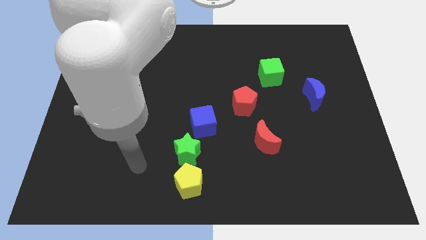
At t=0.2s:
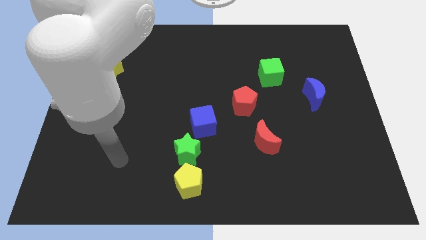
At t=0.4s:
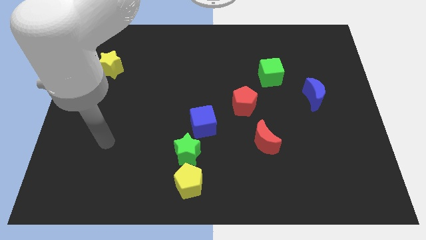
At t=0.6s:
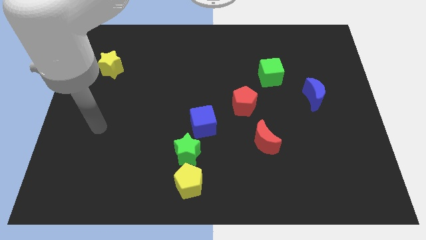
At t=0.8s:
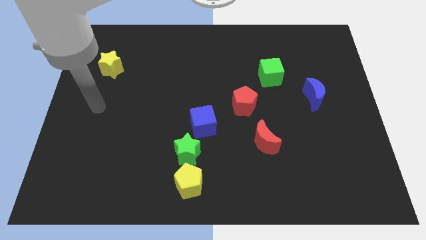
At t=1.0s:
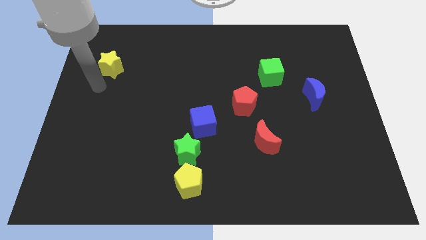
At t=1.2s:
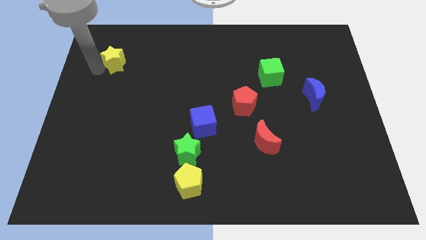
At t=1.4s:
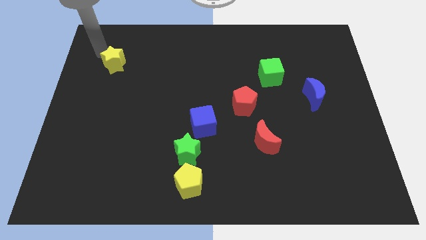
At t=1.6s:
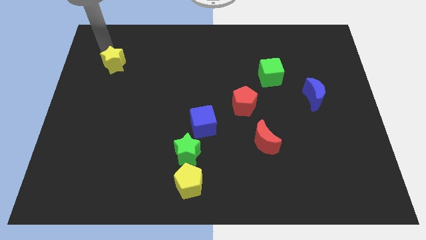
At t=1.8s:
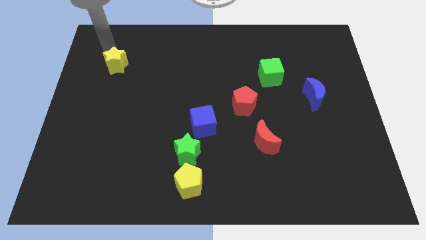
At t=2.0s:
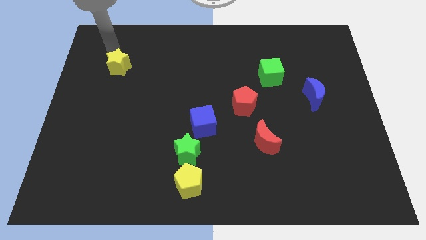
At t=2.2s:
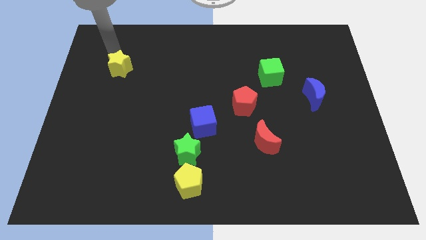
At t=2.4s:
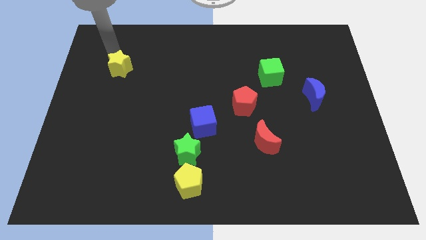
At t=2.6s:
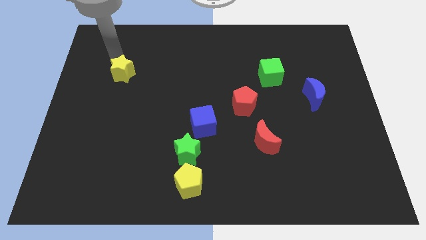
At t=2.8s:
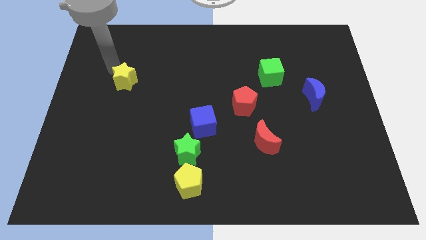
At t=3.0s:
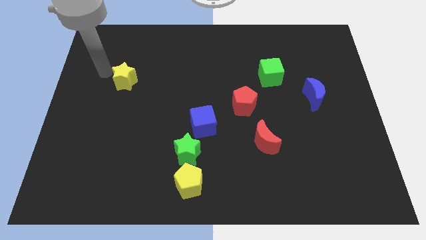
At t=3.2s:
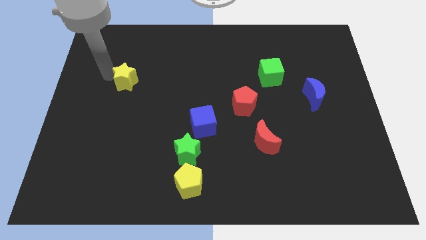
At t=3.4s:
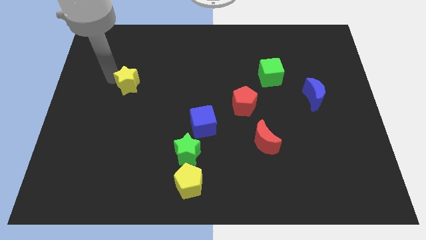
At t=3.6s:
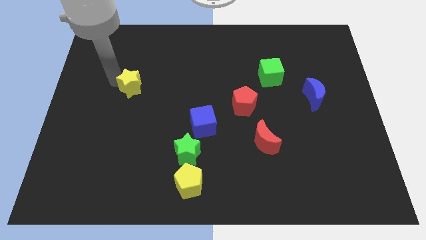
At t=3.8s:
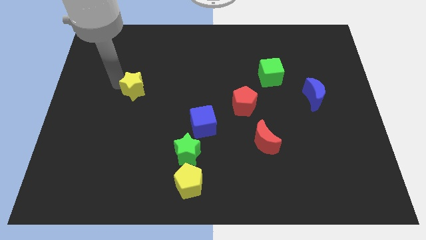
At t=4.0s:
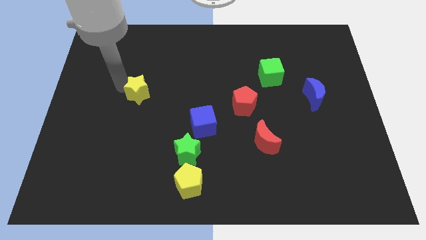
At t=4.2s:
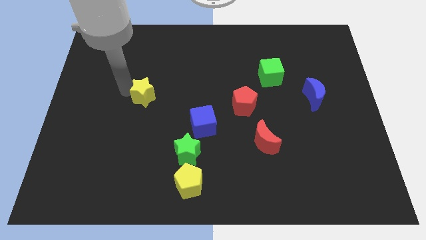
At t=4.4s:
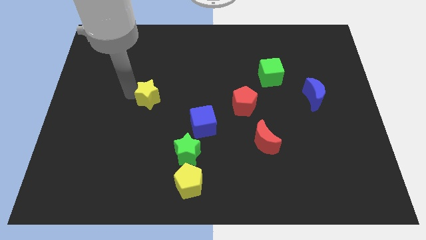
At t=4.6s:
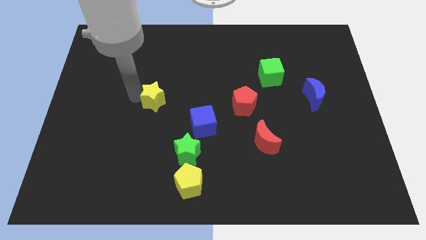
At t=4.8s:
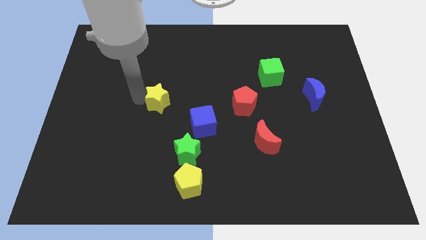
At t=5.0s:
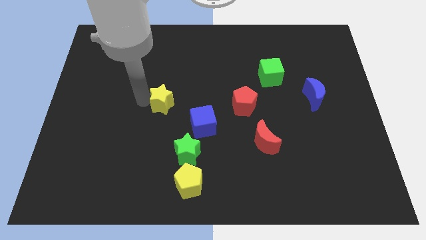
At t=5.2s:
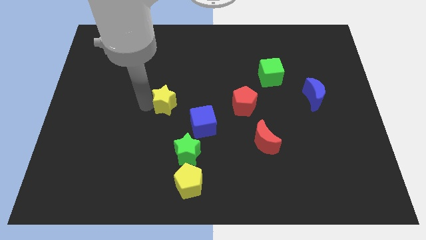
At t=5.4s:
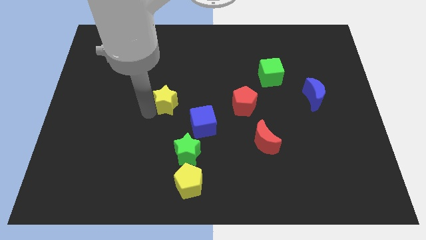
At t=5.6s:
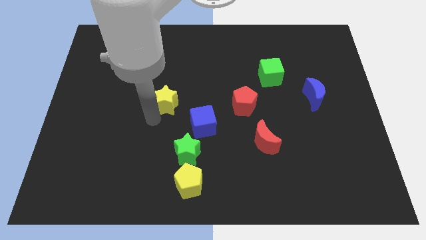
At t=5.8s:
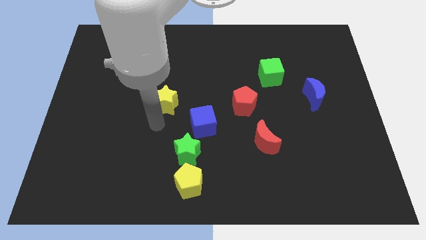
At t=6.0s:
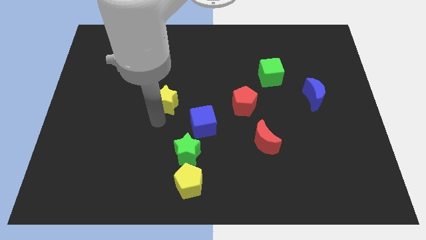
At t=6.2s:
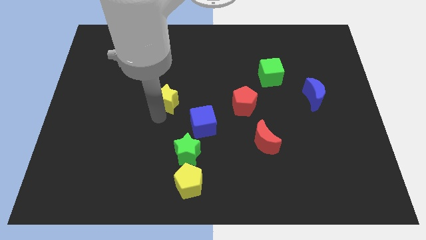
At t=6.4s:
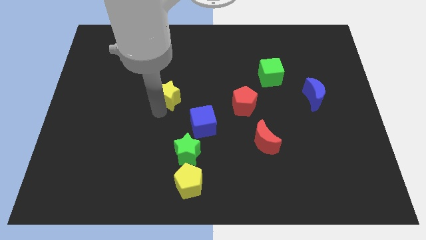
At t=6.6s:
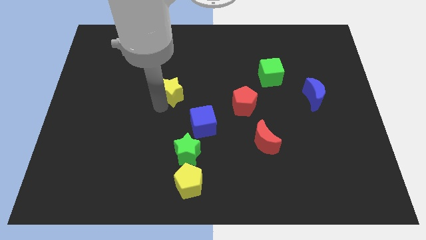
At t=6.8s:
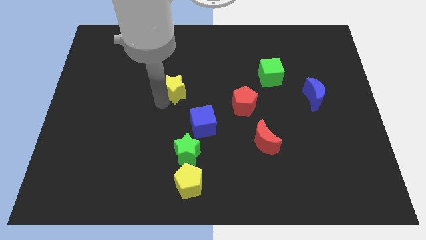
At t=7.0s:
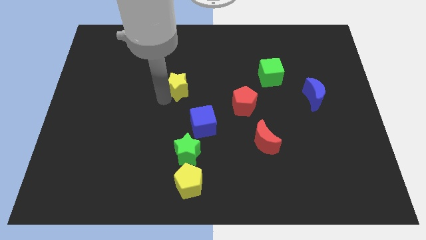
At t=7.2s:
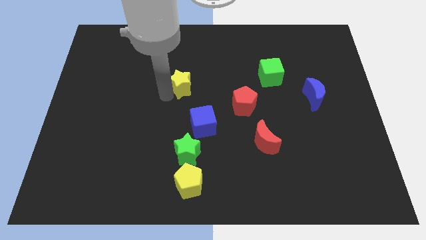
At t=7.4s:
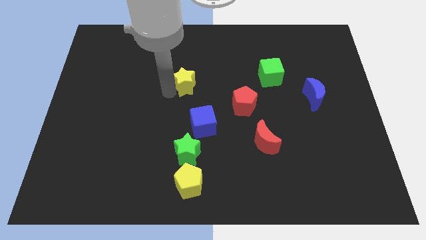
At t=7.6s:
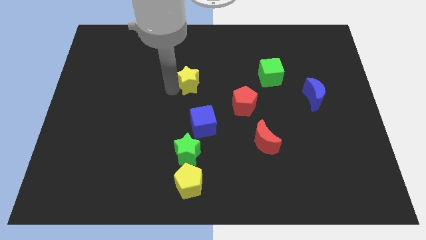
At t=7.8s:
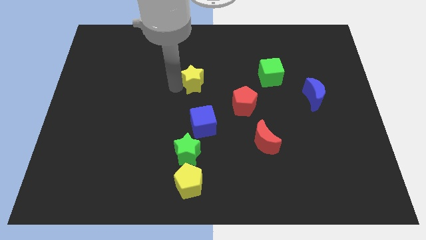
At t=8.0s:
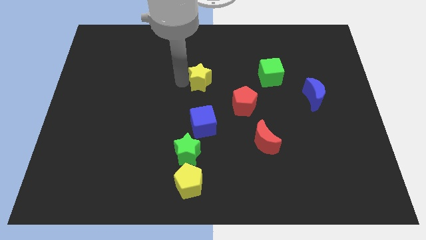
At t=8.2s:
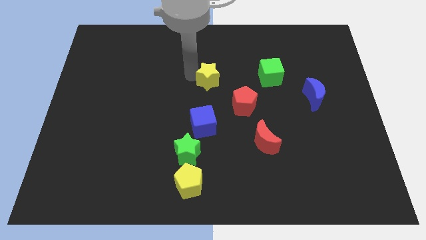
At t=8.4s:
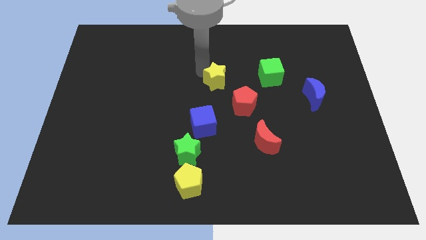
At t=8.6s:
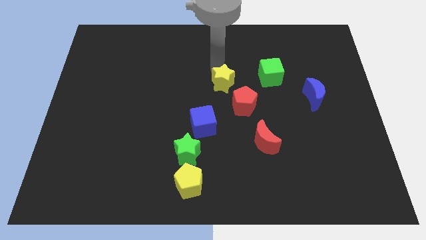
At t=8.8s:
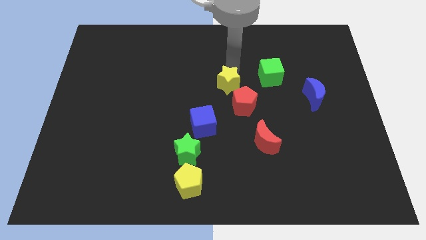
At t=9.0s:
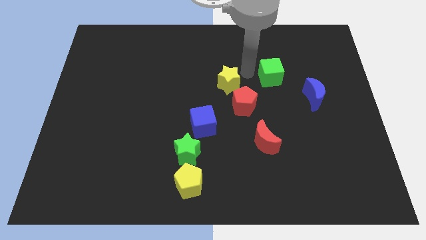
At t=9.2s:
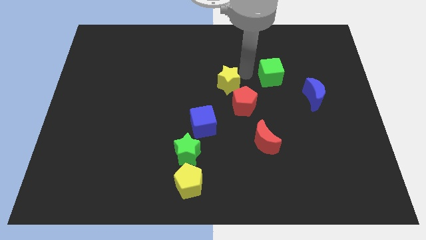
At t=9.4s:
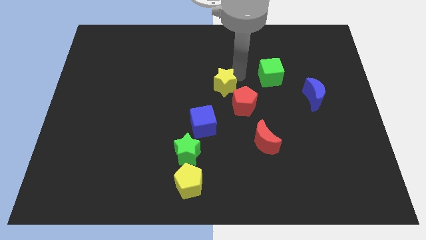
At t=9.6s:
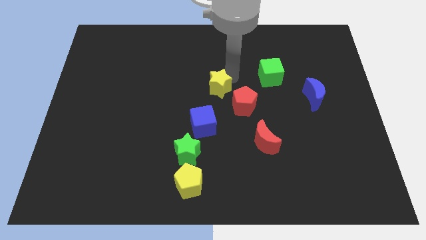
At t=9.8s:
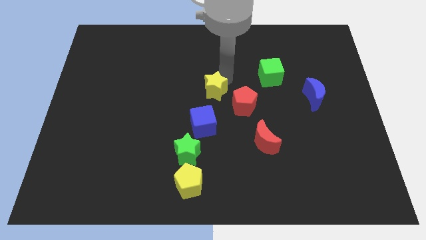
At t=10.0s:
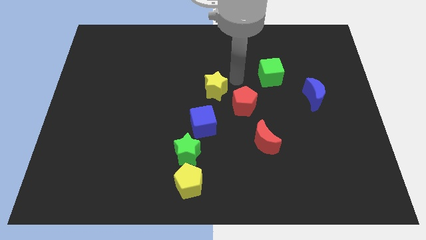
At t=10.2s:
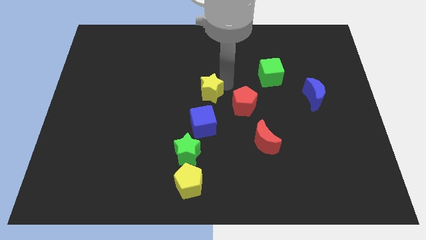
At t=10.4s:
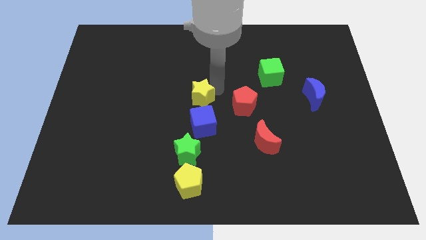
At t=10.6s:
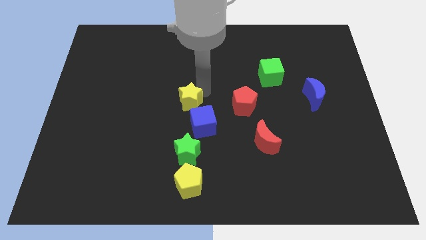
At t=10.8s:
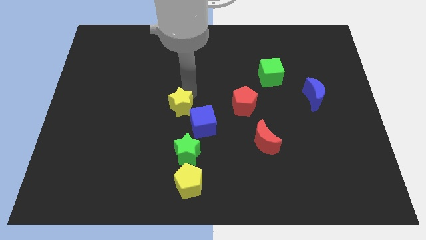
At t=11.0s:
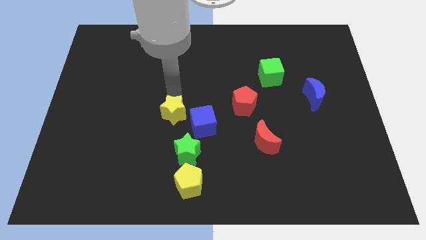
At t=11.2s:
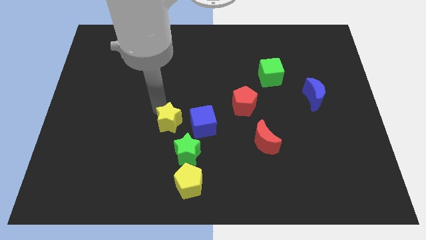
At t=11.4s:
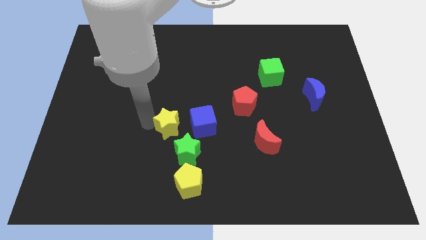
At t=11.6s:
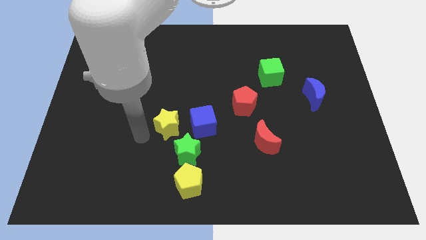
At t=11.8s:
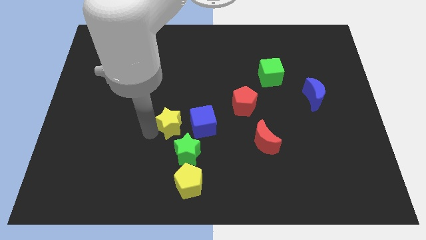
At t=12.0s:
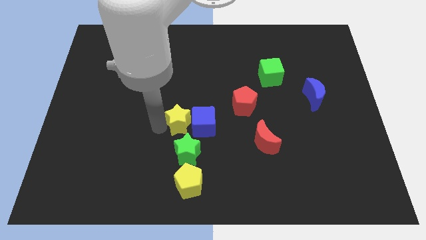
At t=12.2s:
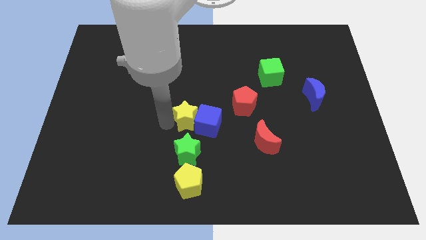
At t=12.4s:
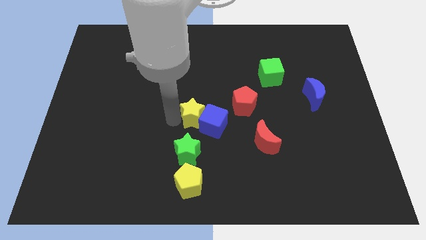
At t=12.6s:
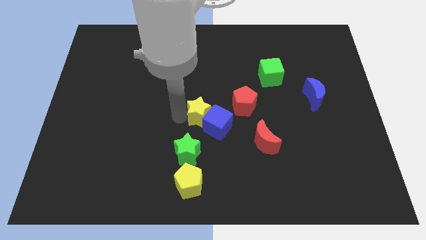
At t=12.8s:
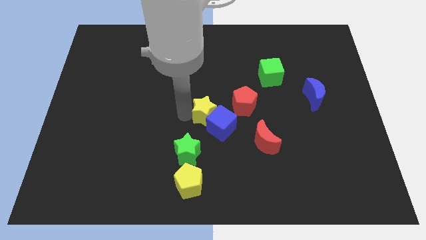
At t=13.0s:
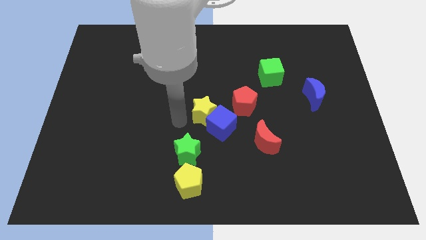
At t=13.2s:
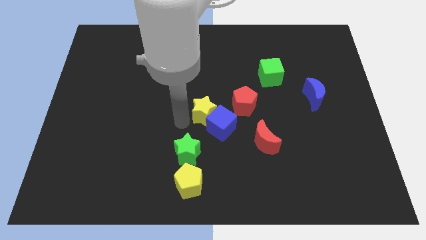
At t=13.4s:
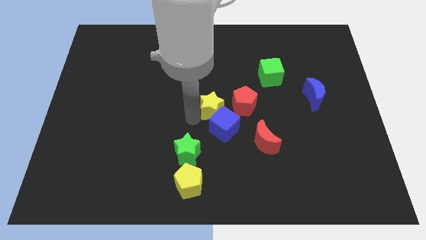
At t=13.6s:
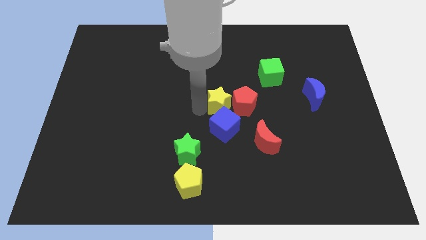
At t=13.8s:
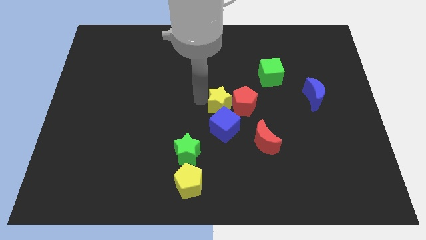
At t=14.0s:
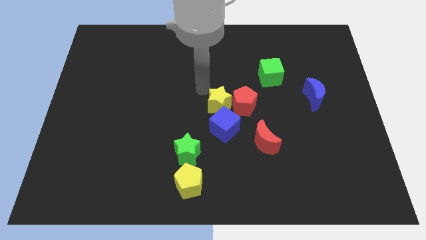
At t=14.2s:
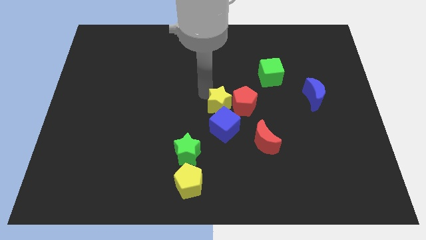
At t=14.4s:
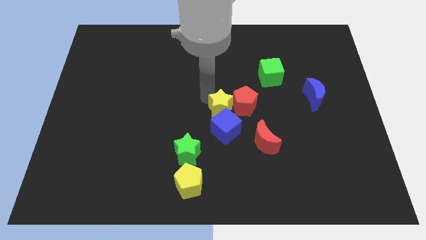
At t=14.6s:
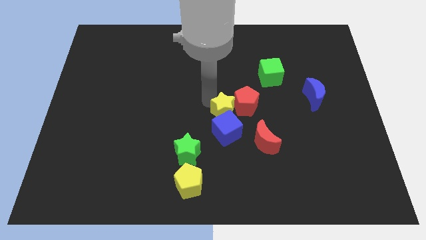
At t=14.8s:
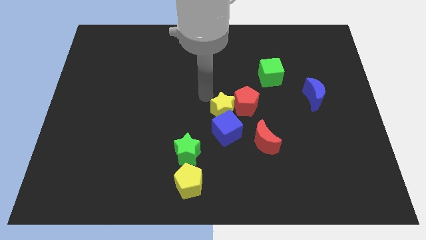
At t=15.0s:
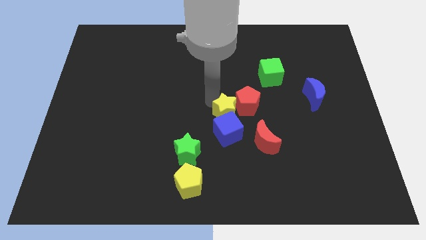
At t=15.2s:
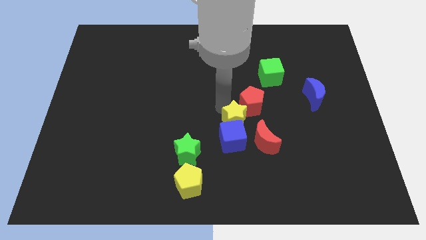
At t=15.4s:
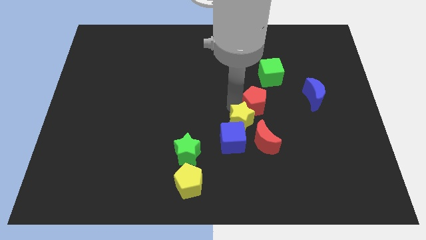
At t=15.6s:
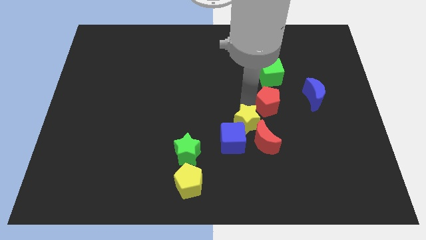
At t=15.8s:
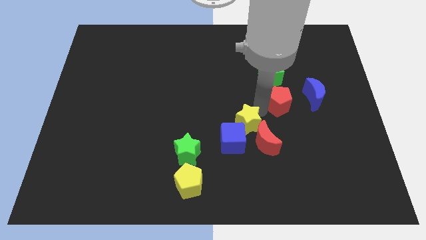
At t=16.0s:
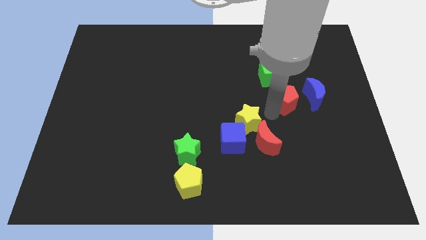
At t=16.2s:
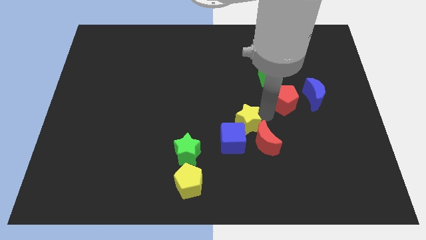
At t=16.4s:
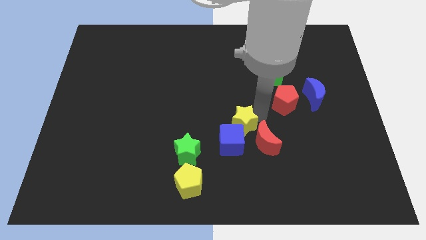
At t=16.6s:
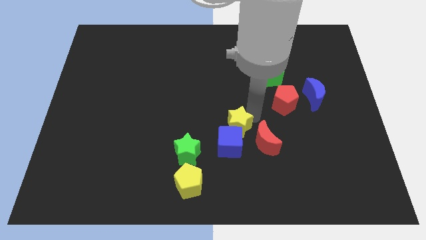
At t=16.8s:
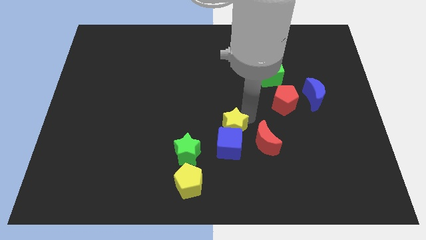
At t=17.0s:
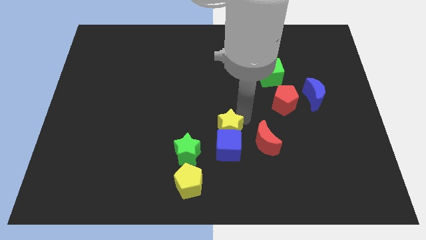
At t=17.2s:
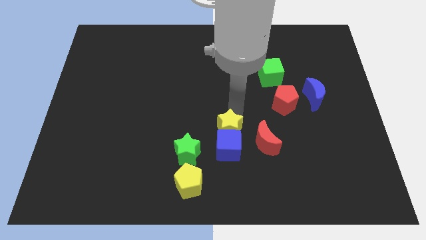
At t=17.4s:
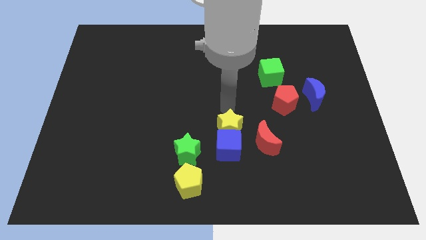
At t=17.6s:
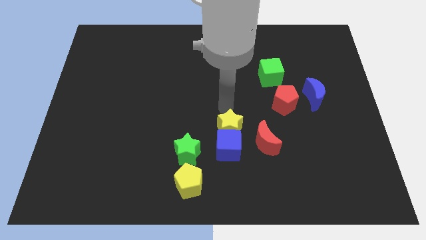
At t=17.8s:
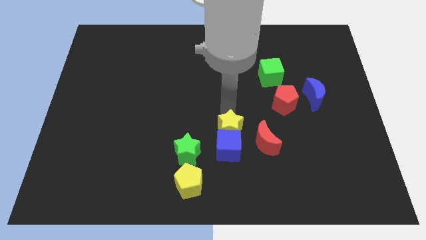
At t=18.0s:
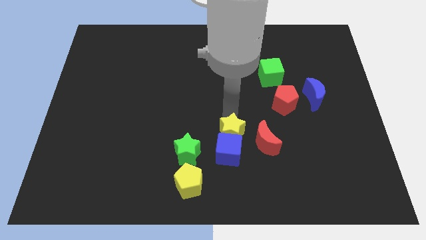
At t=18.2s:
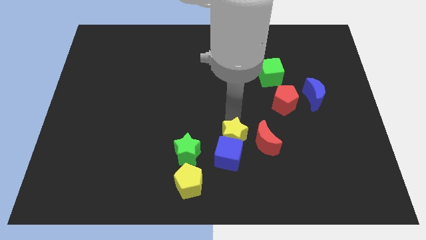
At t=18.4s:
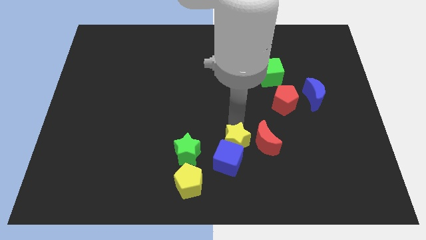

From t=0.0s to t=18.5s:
move the yellow star diagonally down and to the left of the red moon
